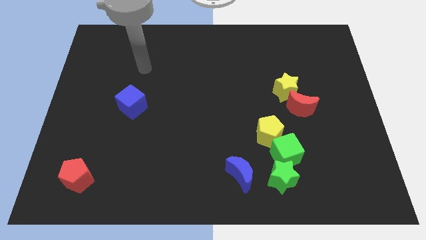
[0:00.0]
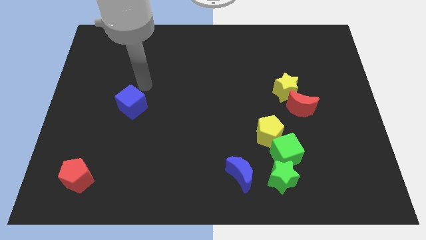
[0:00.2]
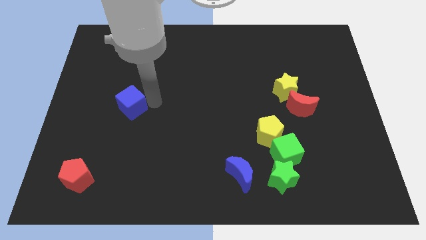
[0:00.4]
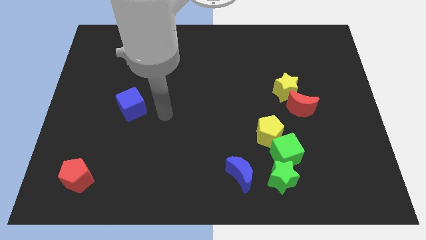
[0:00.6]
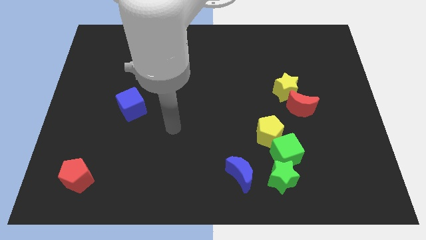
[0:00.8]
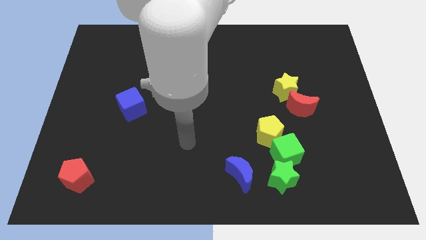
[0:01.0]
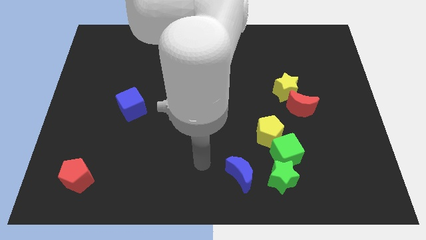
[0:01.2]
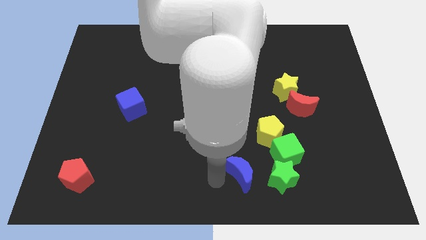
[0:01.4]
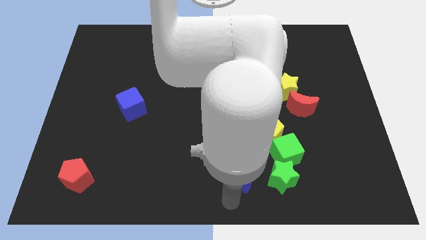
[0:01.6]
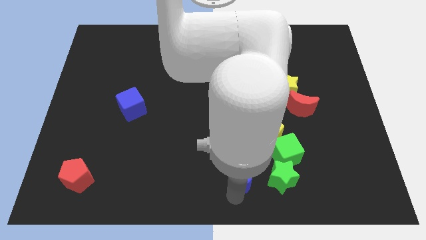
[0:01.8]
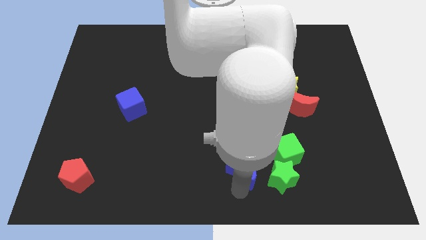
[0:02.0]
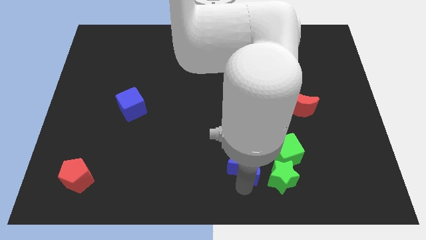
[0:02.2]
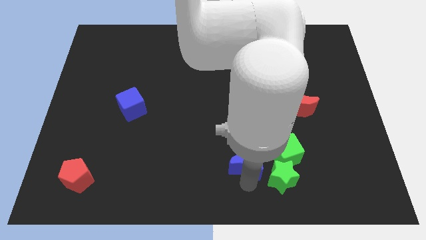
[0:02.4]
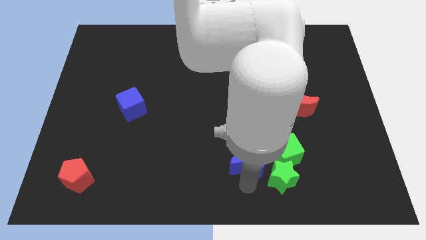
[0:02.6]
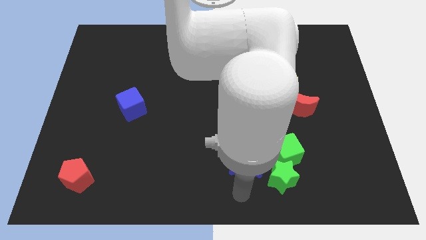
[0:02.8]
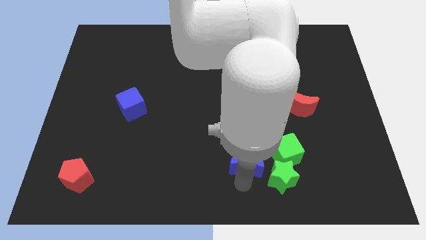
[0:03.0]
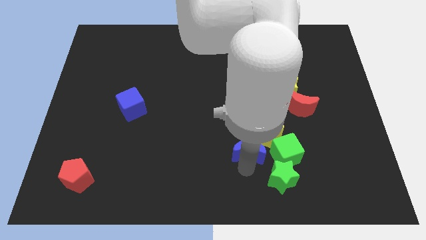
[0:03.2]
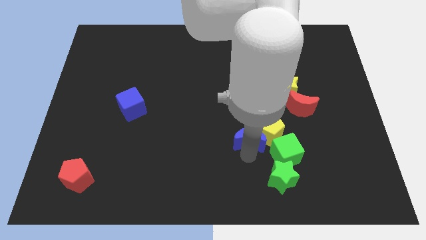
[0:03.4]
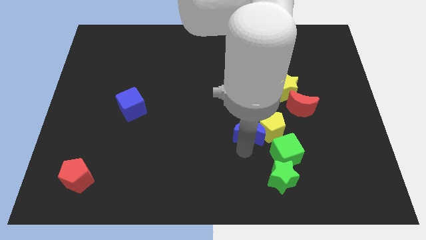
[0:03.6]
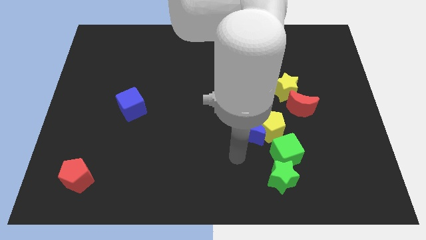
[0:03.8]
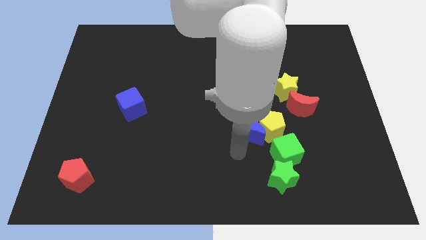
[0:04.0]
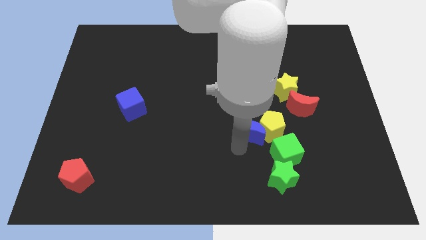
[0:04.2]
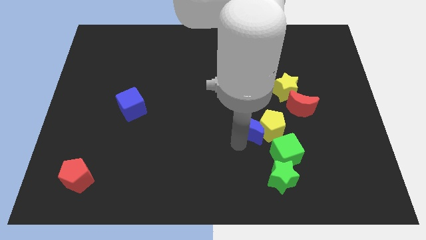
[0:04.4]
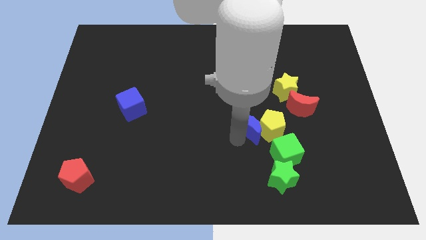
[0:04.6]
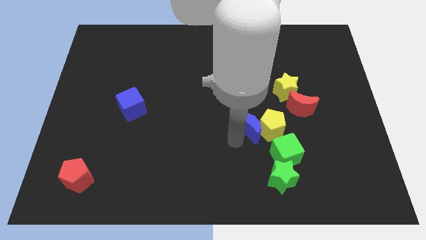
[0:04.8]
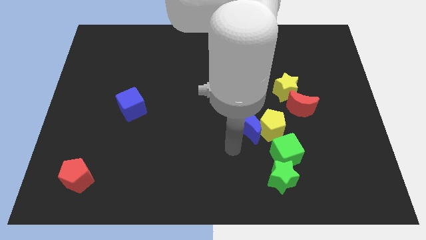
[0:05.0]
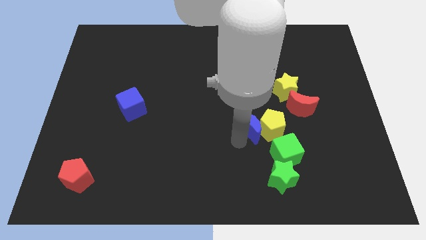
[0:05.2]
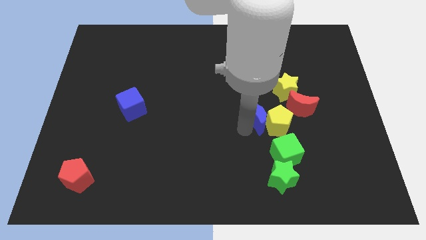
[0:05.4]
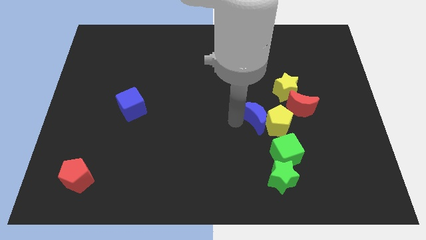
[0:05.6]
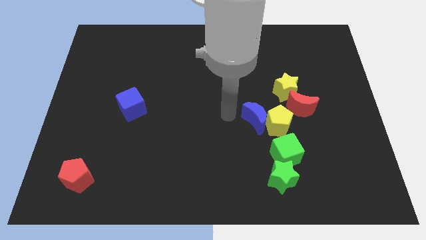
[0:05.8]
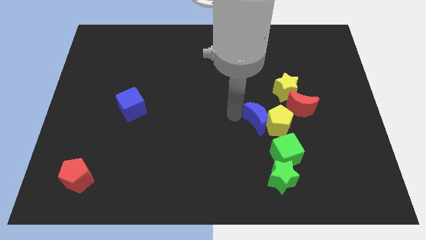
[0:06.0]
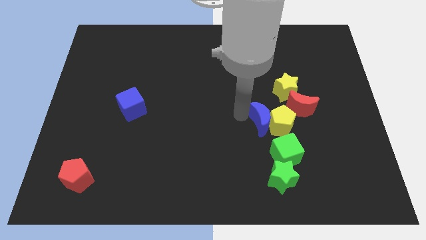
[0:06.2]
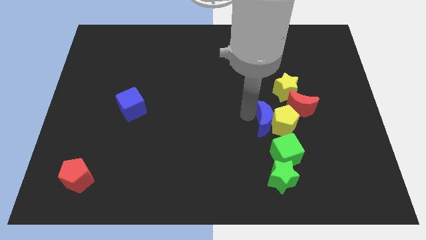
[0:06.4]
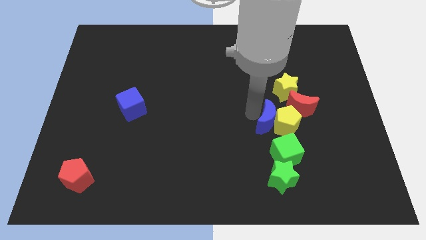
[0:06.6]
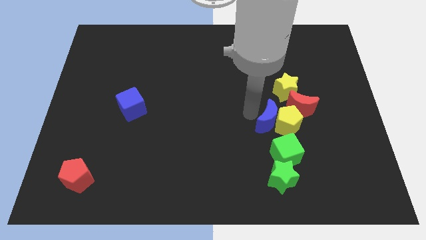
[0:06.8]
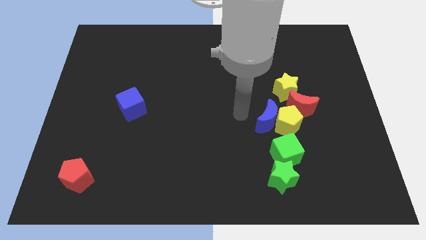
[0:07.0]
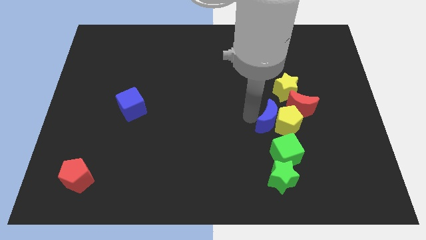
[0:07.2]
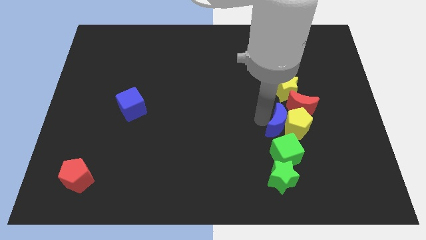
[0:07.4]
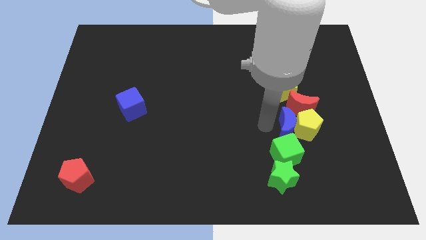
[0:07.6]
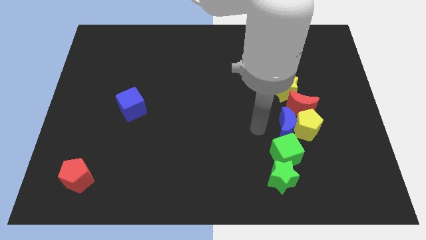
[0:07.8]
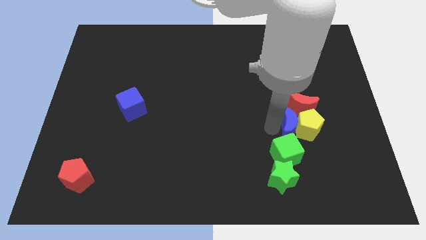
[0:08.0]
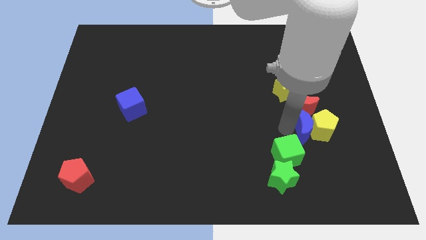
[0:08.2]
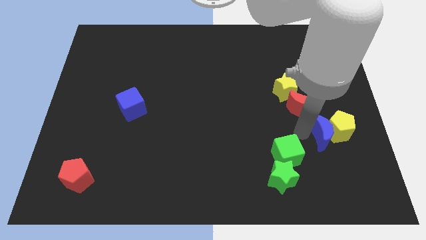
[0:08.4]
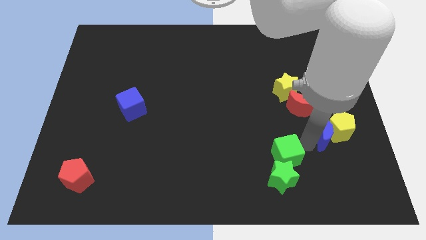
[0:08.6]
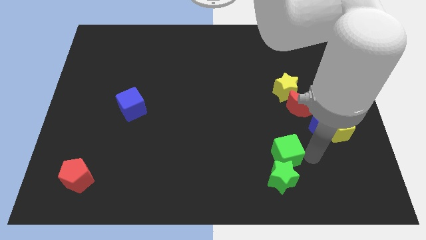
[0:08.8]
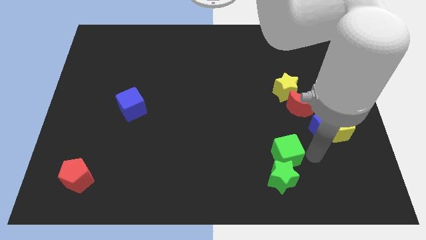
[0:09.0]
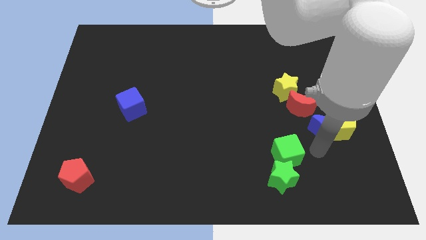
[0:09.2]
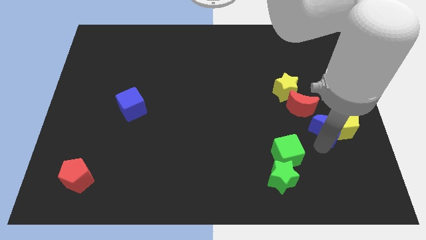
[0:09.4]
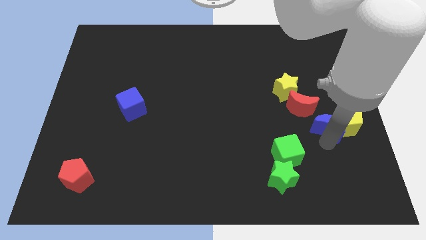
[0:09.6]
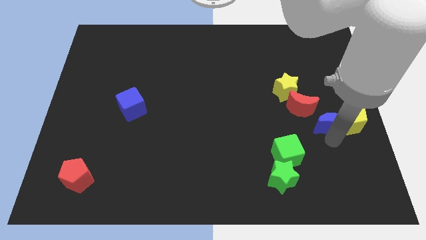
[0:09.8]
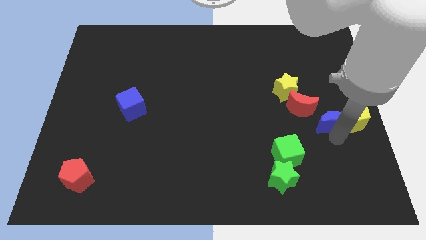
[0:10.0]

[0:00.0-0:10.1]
slide the blue moon to the center right

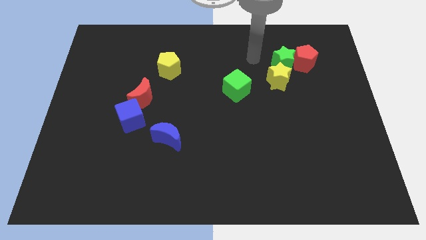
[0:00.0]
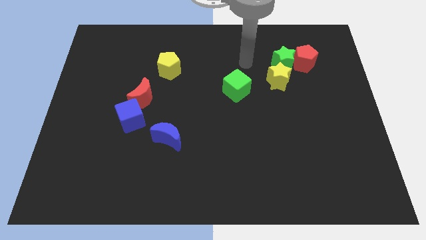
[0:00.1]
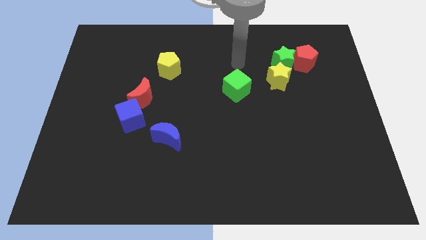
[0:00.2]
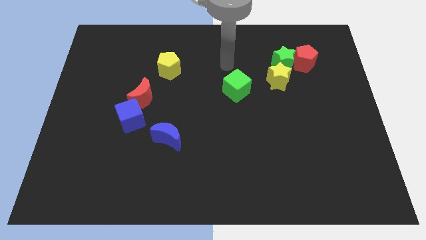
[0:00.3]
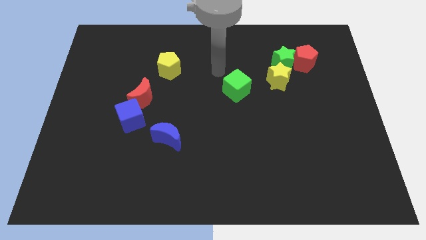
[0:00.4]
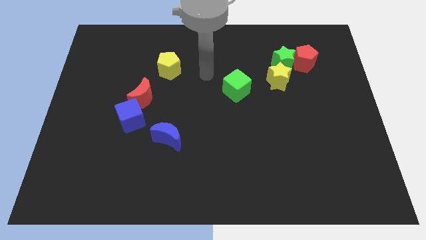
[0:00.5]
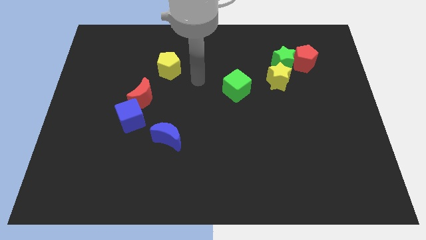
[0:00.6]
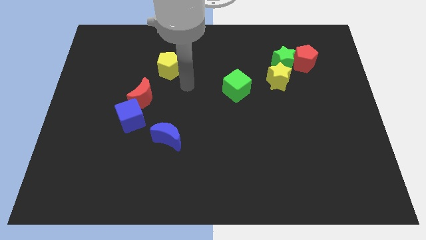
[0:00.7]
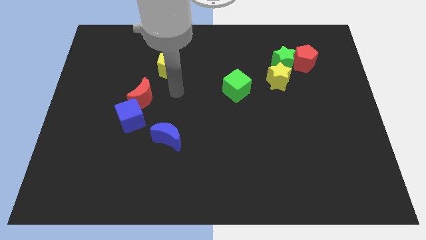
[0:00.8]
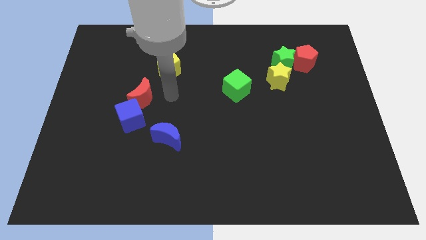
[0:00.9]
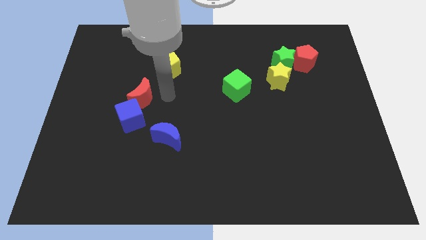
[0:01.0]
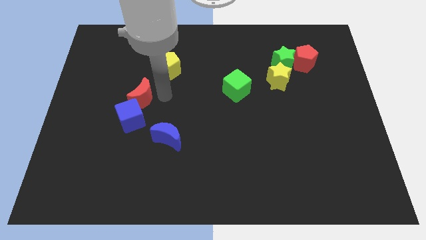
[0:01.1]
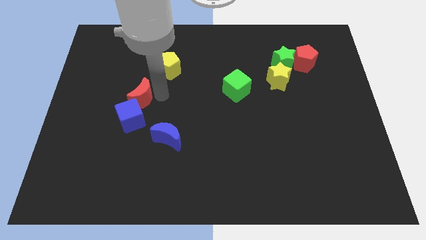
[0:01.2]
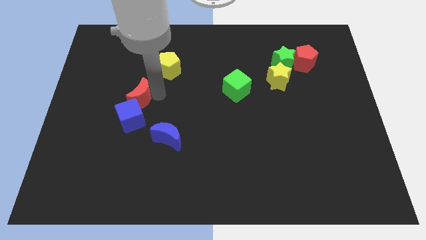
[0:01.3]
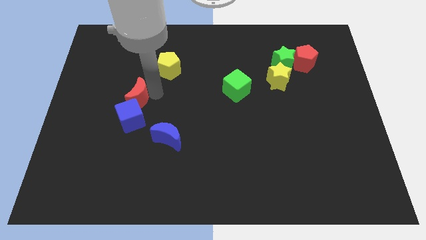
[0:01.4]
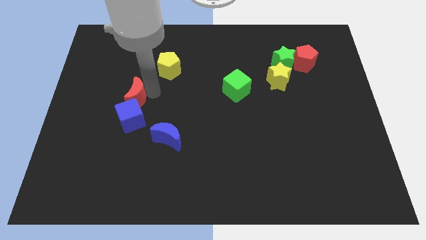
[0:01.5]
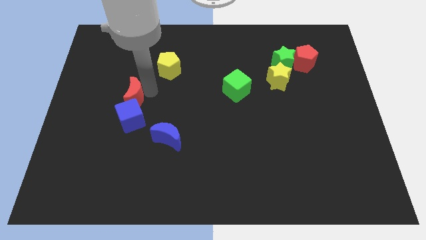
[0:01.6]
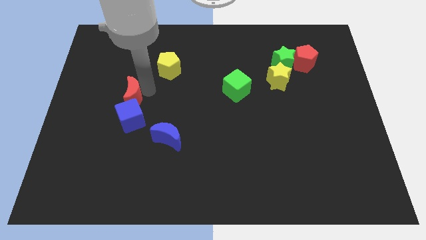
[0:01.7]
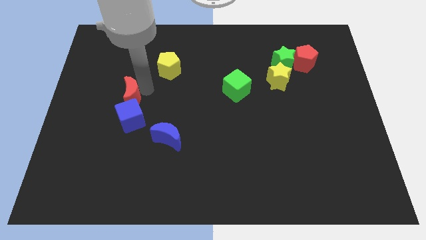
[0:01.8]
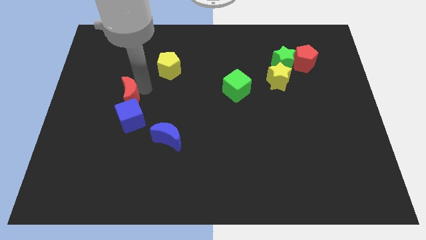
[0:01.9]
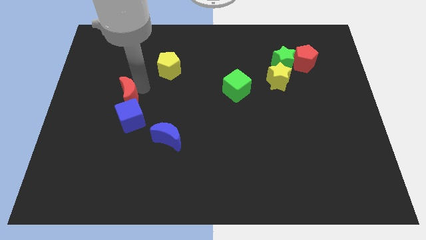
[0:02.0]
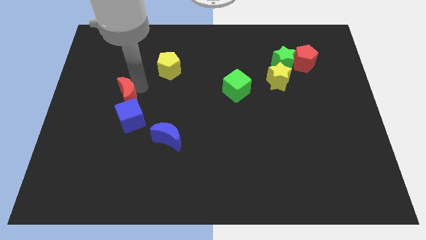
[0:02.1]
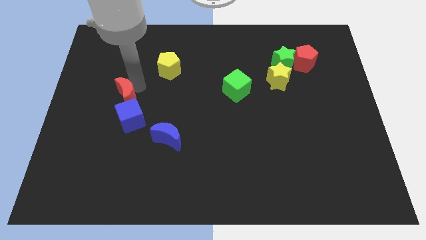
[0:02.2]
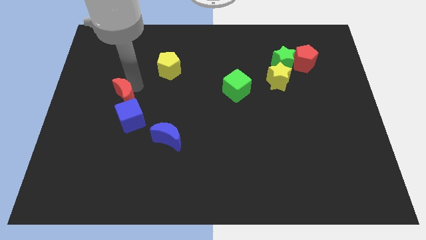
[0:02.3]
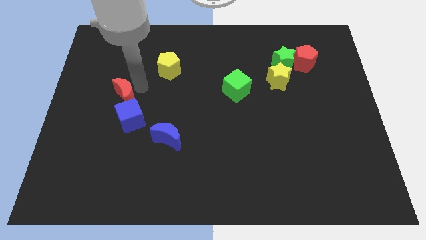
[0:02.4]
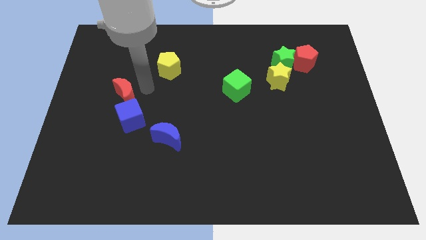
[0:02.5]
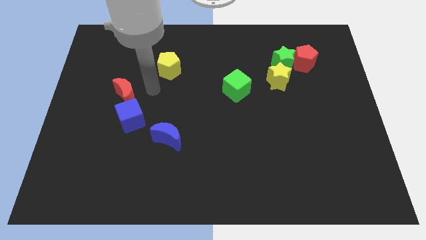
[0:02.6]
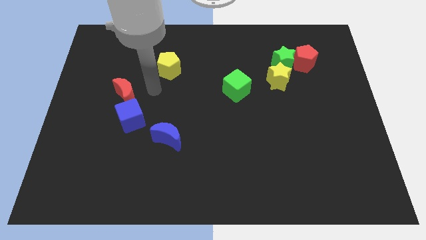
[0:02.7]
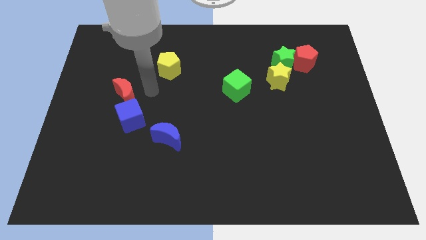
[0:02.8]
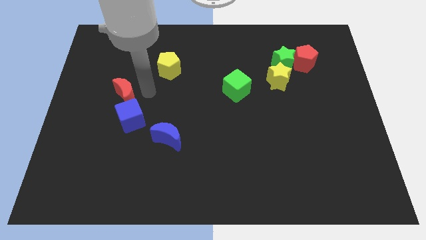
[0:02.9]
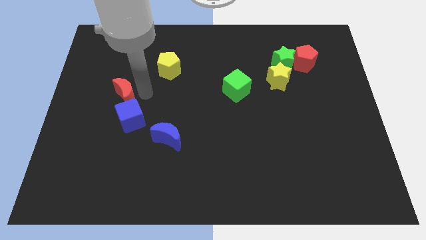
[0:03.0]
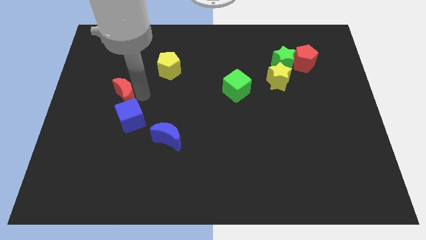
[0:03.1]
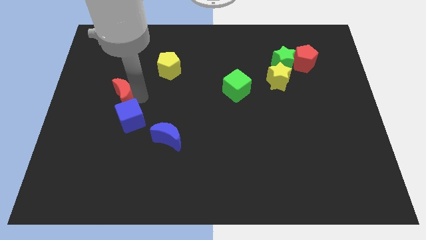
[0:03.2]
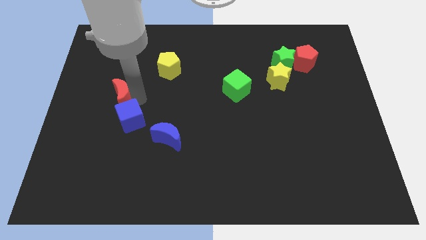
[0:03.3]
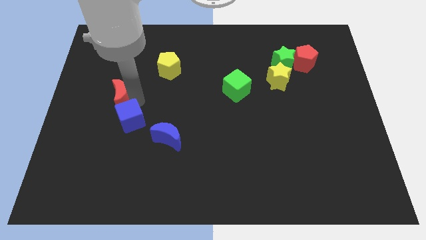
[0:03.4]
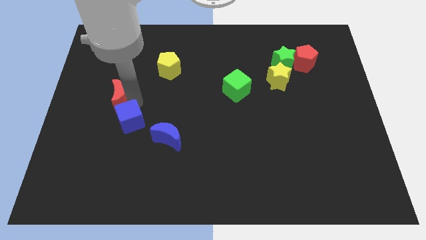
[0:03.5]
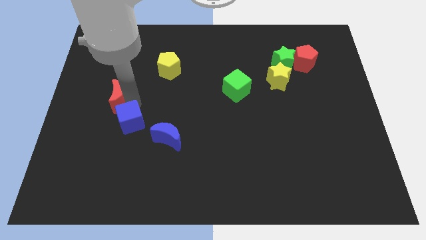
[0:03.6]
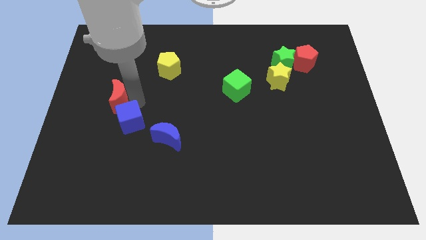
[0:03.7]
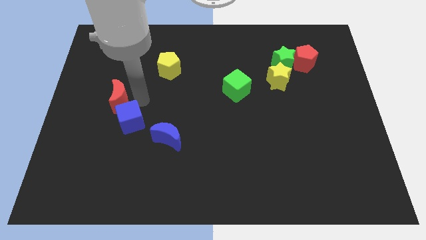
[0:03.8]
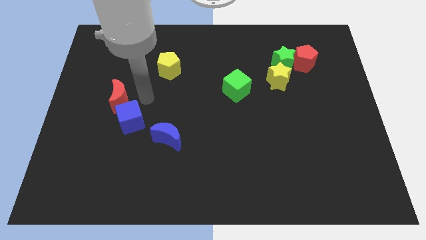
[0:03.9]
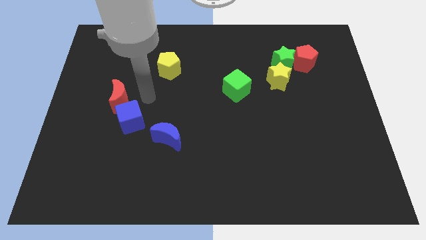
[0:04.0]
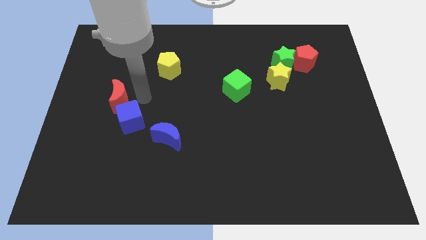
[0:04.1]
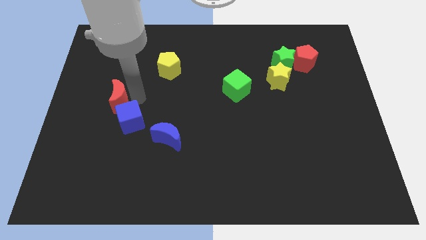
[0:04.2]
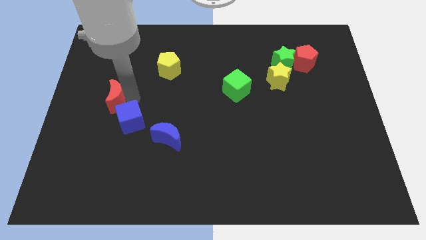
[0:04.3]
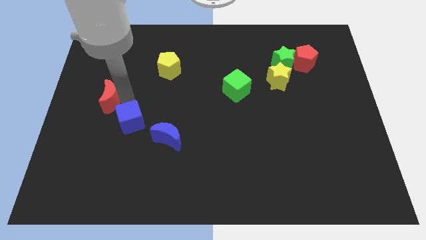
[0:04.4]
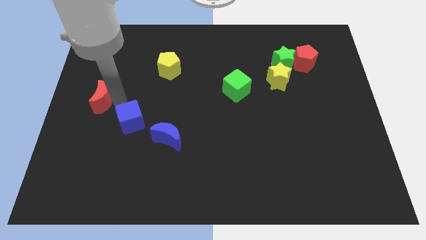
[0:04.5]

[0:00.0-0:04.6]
push the red moon to the left side of the board
